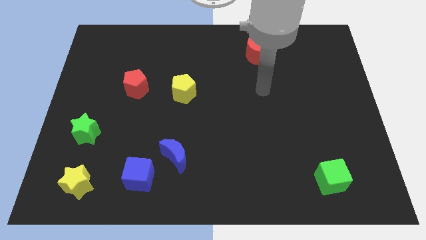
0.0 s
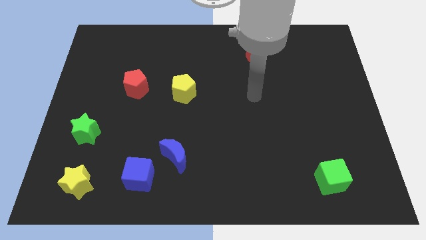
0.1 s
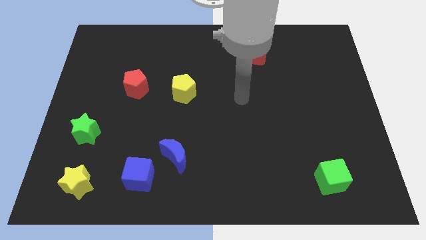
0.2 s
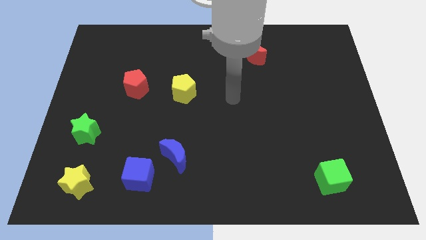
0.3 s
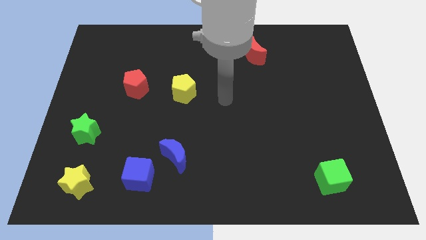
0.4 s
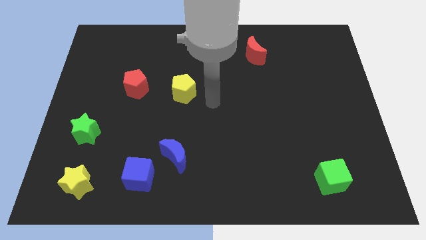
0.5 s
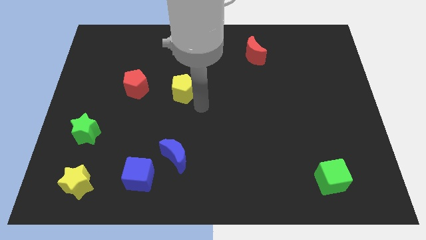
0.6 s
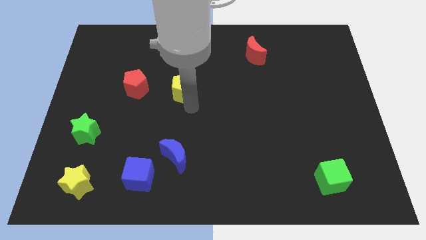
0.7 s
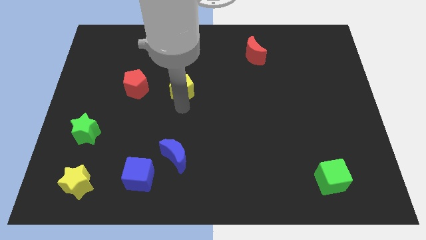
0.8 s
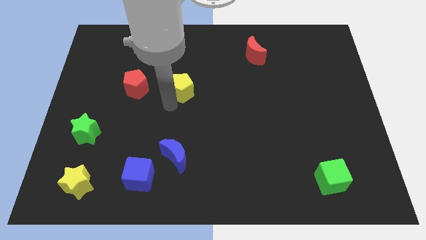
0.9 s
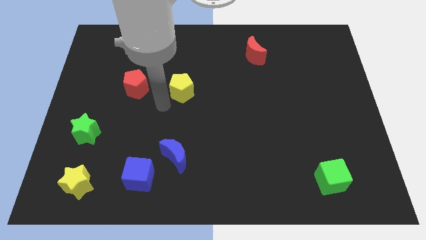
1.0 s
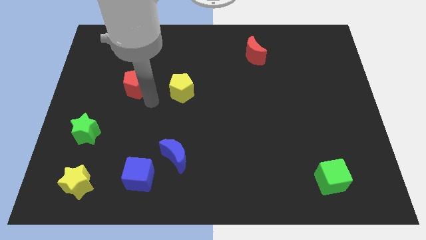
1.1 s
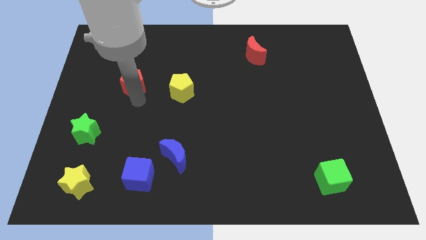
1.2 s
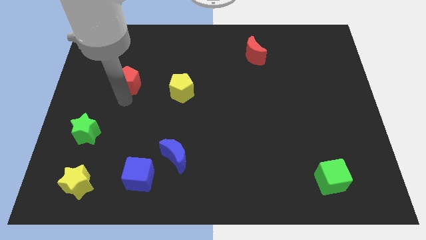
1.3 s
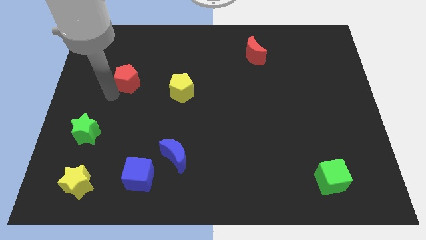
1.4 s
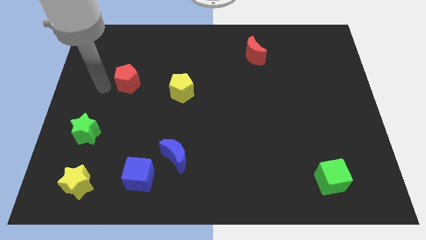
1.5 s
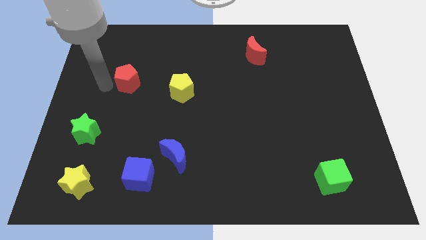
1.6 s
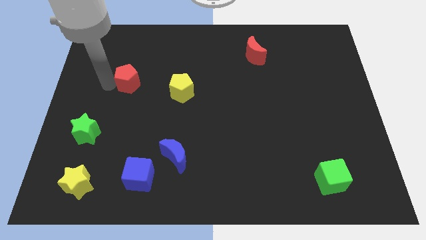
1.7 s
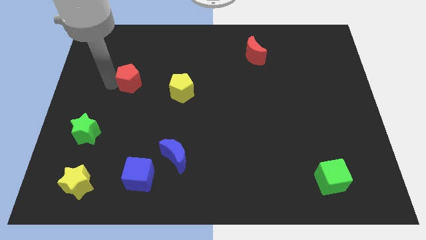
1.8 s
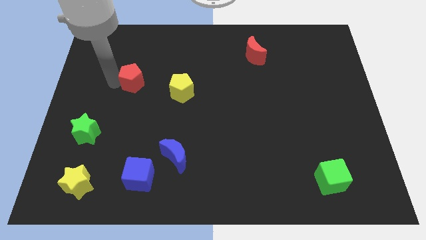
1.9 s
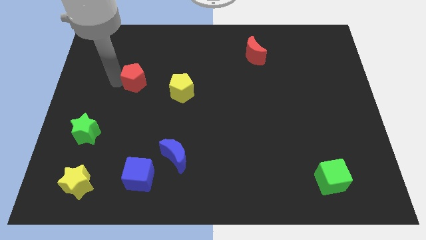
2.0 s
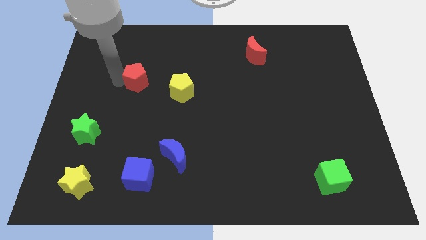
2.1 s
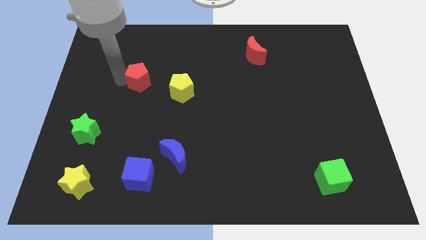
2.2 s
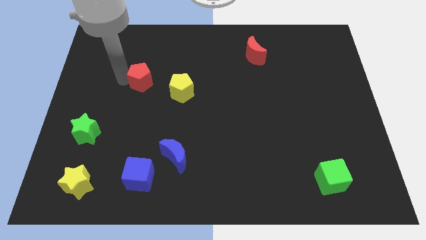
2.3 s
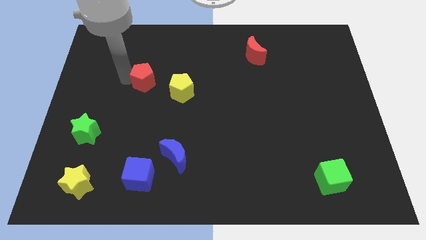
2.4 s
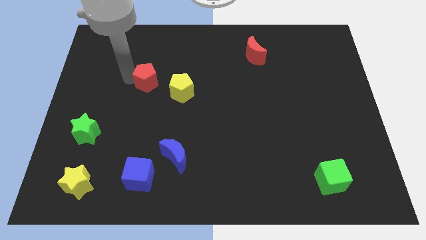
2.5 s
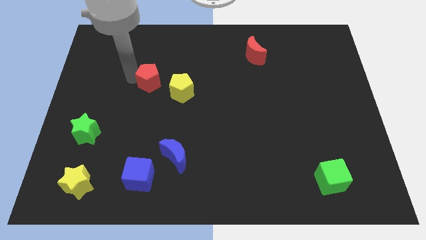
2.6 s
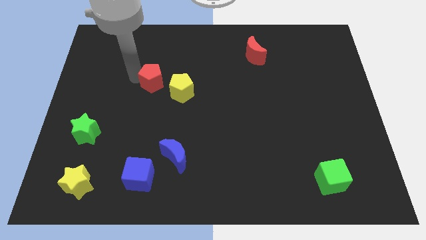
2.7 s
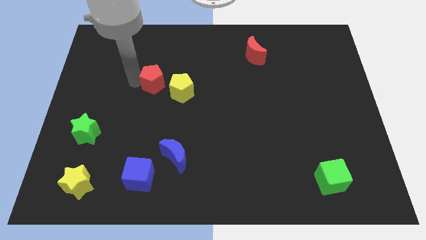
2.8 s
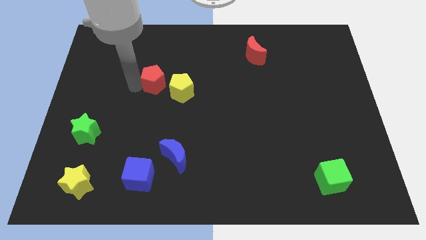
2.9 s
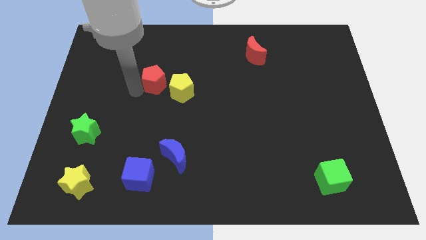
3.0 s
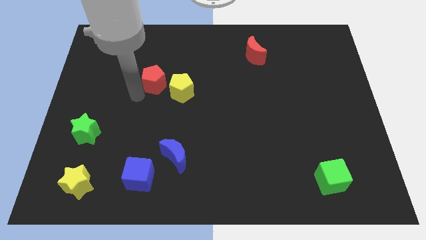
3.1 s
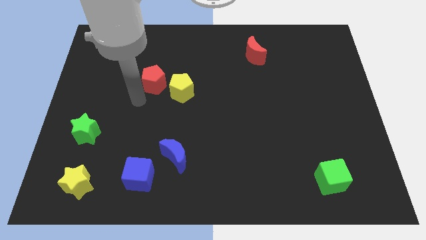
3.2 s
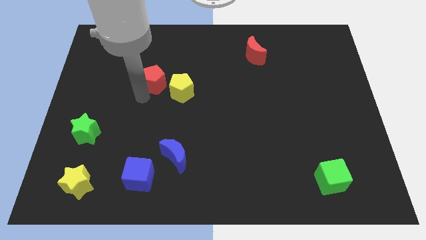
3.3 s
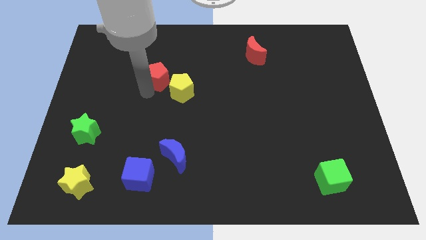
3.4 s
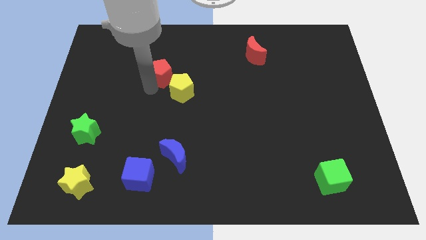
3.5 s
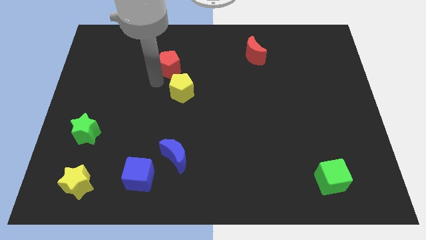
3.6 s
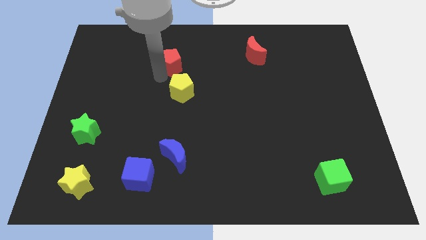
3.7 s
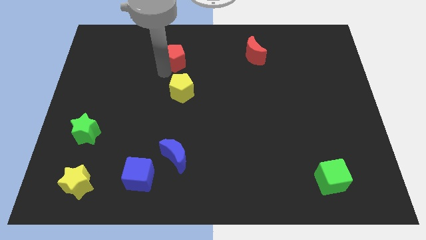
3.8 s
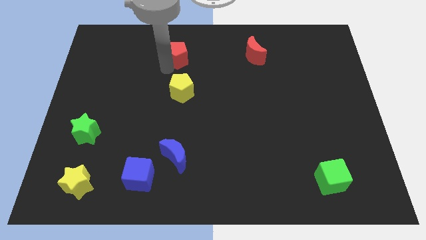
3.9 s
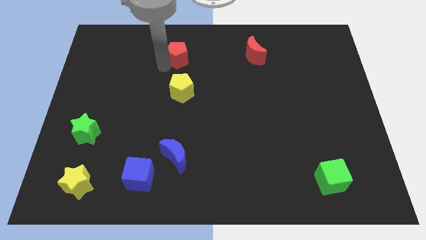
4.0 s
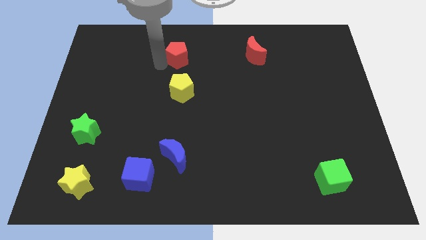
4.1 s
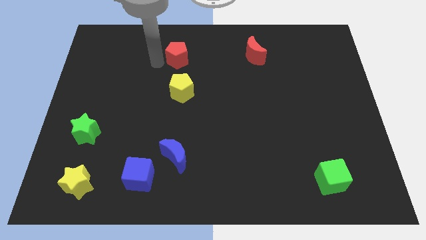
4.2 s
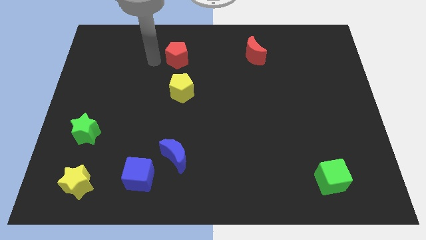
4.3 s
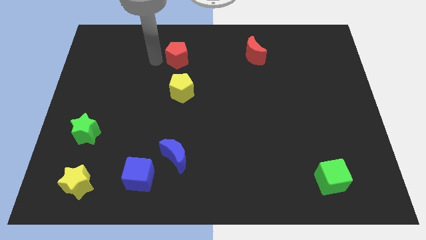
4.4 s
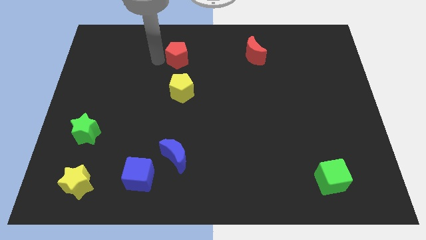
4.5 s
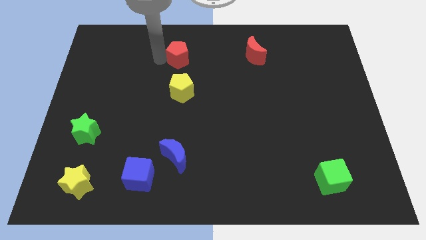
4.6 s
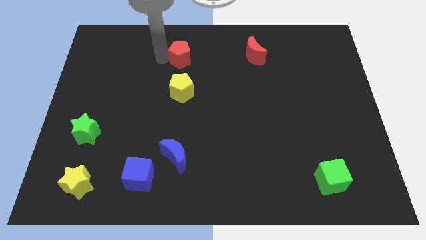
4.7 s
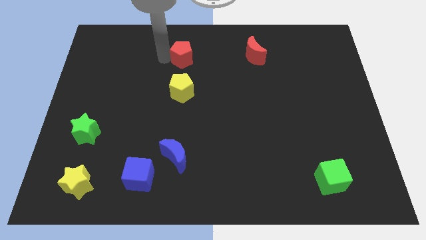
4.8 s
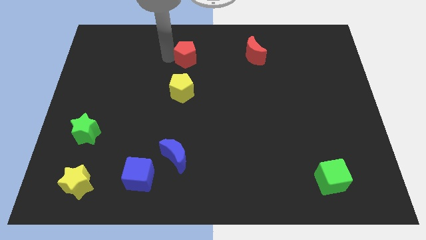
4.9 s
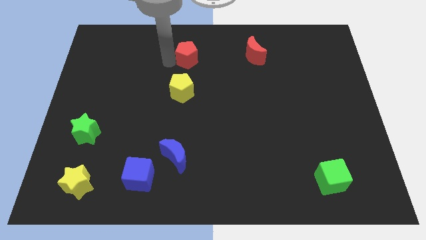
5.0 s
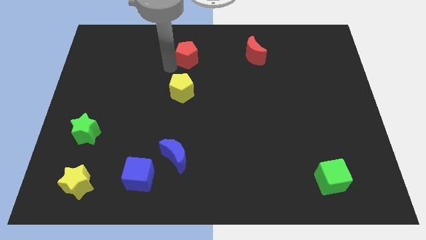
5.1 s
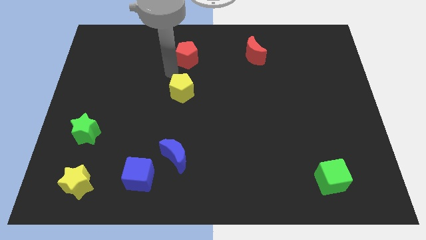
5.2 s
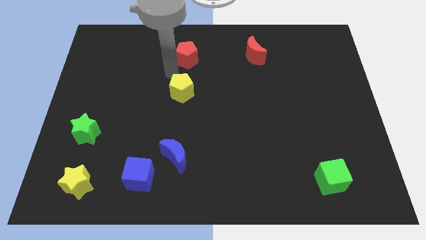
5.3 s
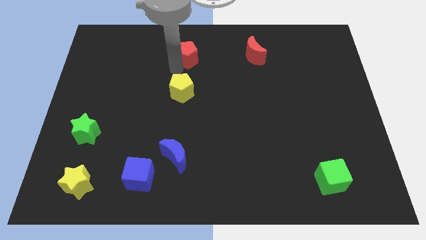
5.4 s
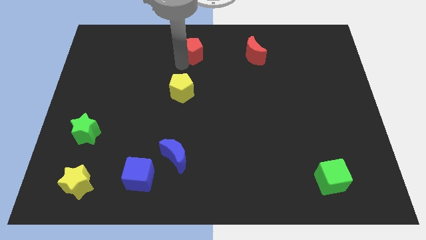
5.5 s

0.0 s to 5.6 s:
push the red pentagon to the towards your base
